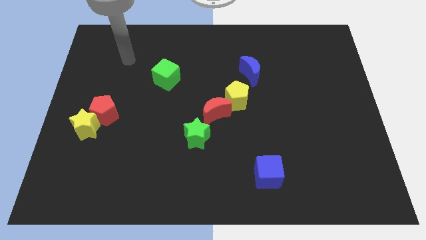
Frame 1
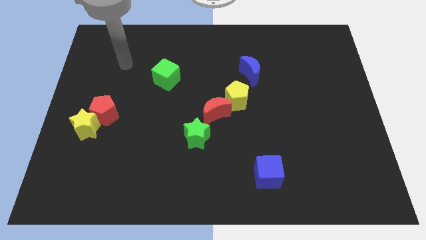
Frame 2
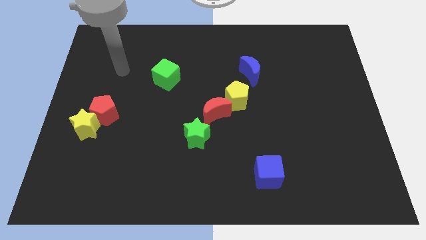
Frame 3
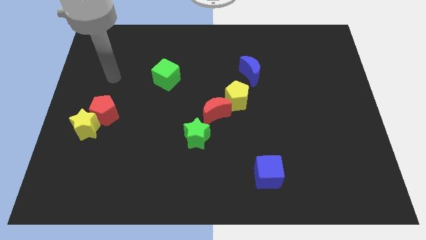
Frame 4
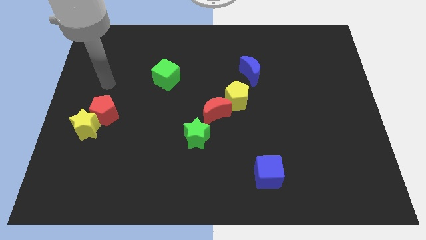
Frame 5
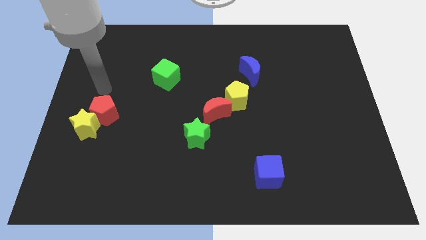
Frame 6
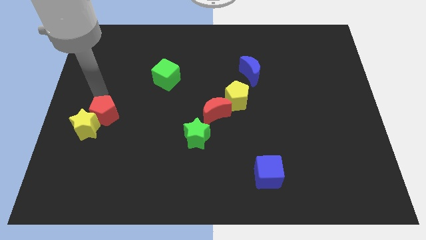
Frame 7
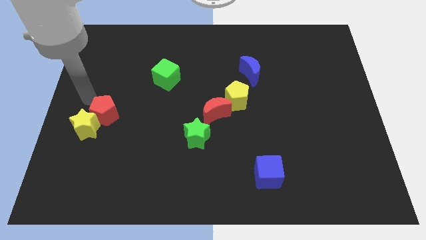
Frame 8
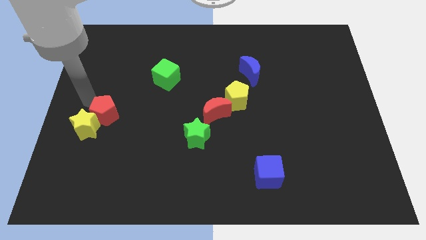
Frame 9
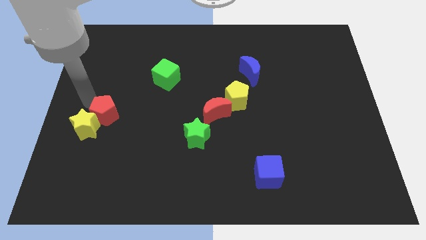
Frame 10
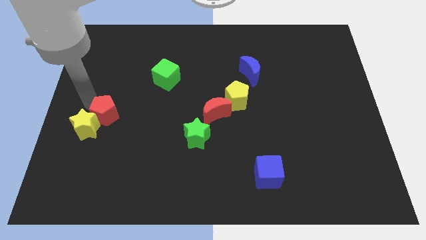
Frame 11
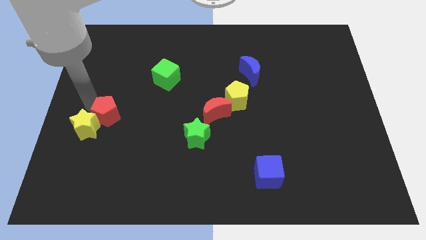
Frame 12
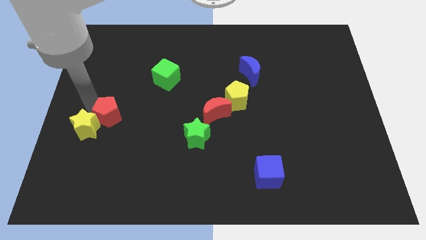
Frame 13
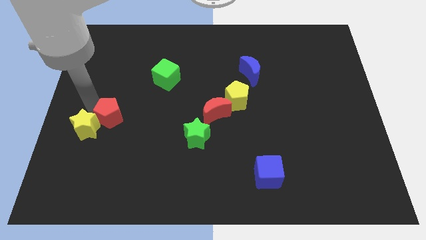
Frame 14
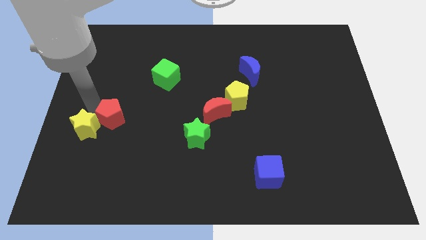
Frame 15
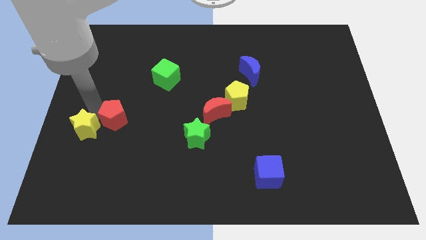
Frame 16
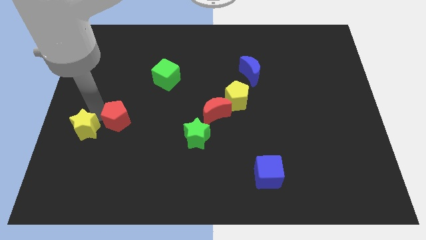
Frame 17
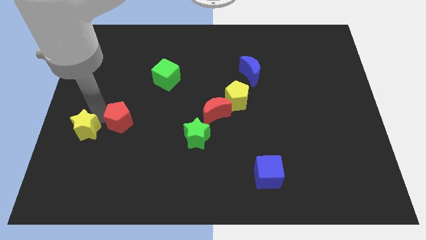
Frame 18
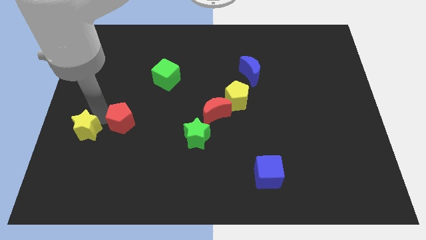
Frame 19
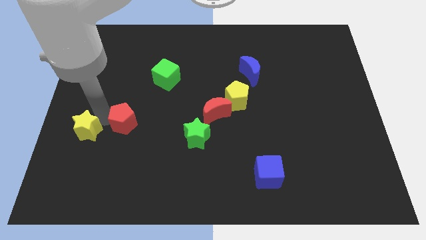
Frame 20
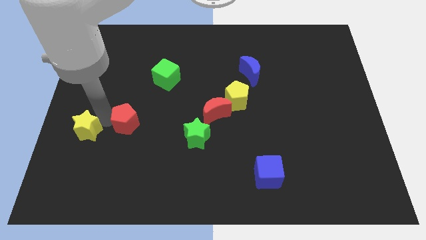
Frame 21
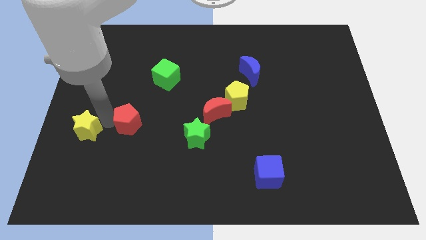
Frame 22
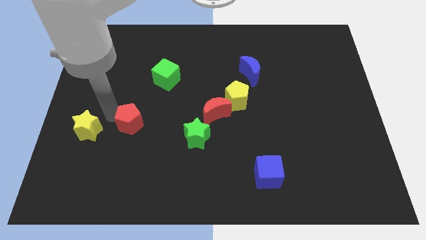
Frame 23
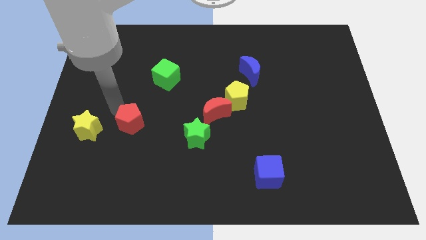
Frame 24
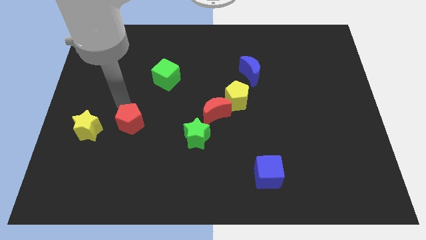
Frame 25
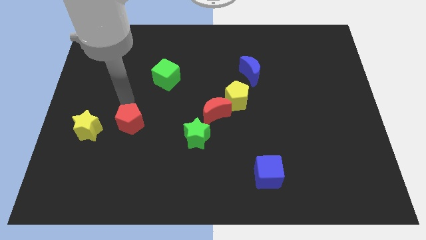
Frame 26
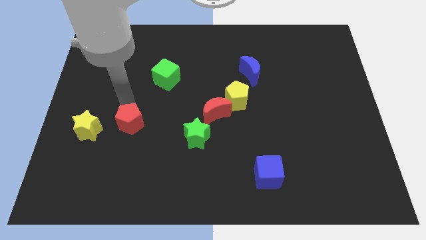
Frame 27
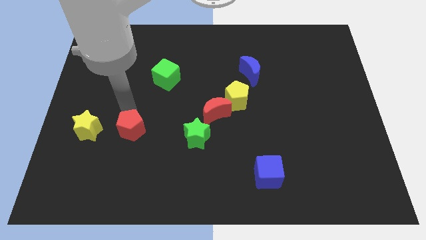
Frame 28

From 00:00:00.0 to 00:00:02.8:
move the red pentagon a little bit downwards and to the right

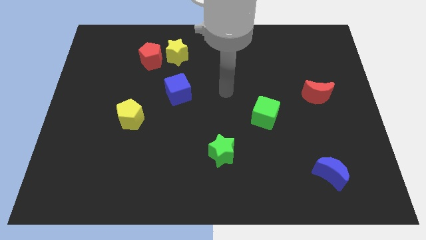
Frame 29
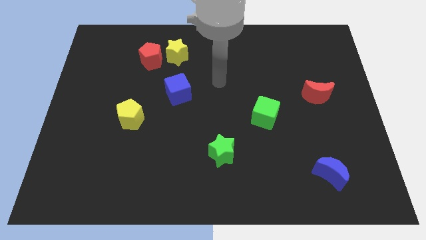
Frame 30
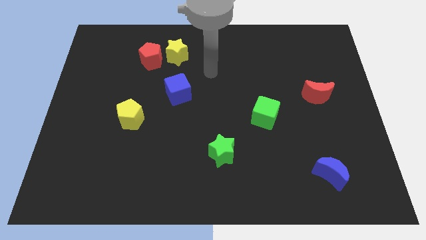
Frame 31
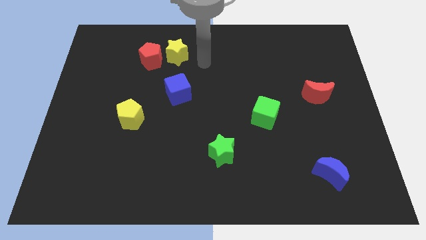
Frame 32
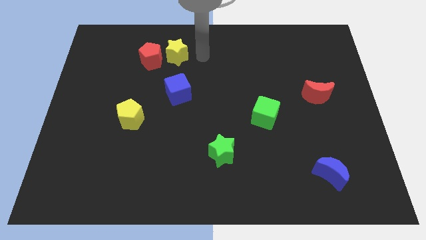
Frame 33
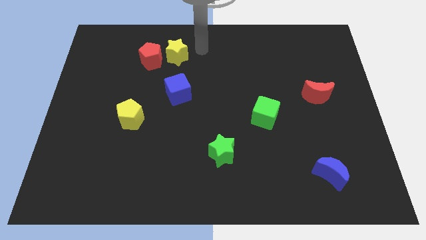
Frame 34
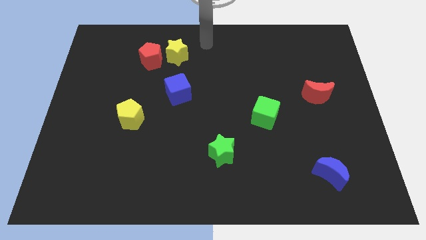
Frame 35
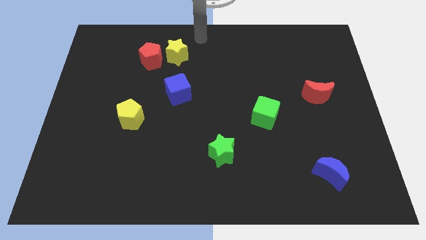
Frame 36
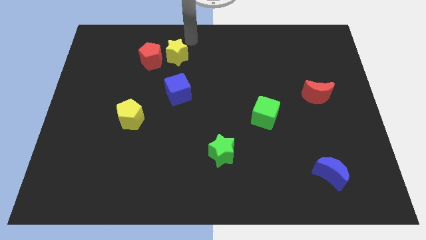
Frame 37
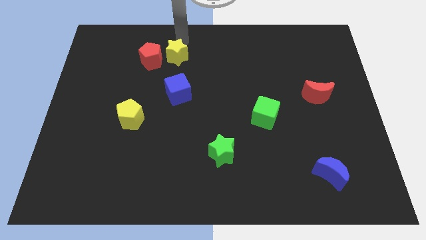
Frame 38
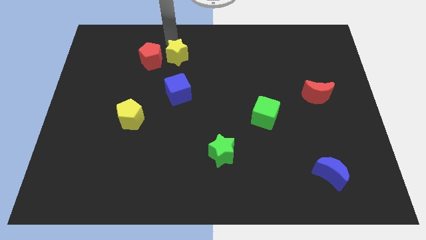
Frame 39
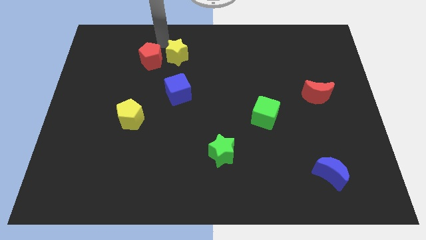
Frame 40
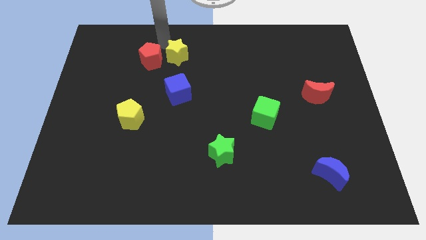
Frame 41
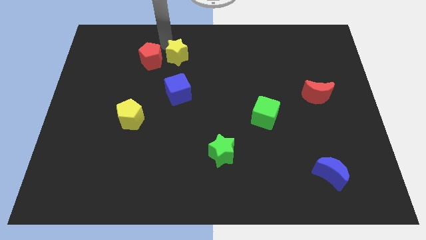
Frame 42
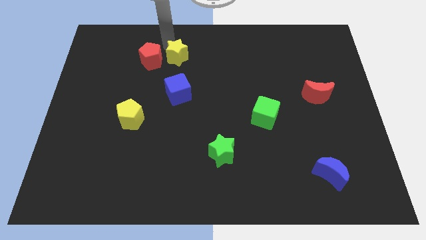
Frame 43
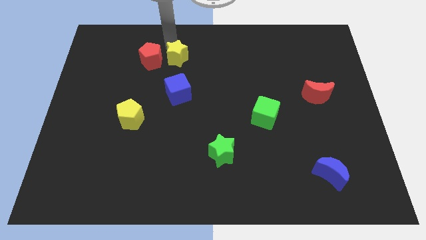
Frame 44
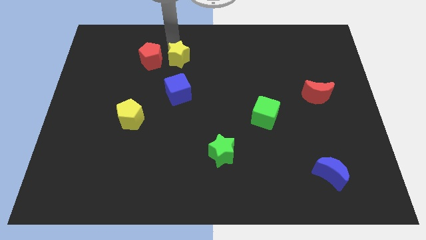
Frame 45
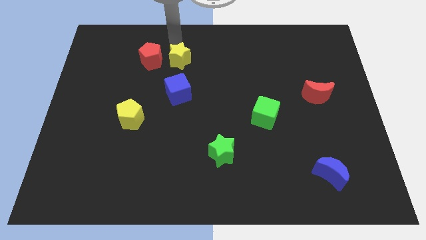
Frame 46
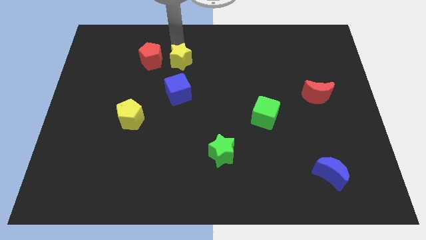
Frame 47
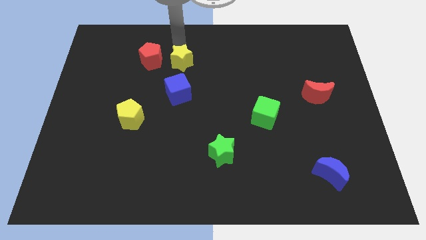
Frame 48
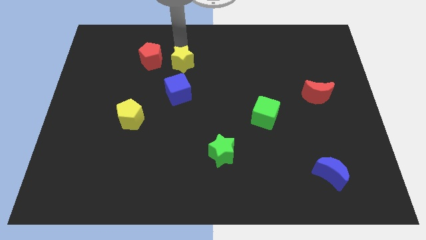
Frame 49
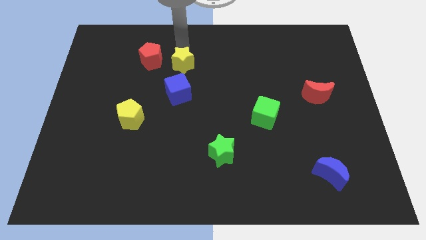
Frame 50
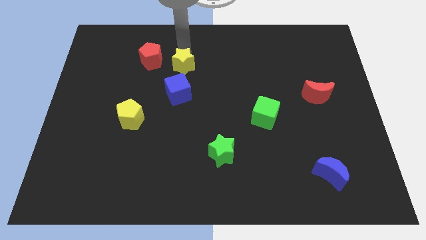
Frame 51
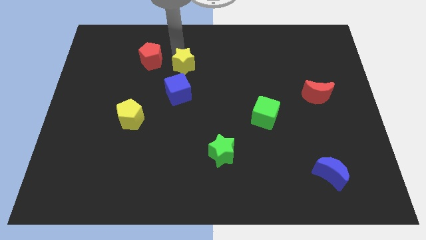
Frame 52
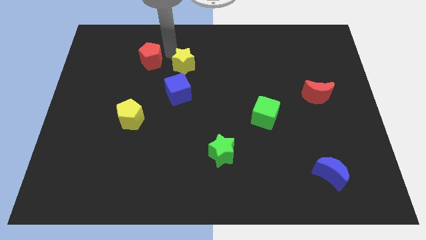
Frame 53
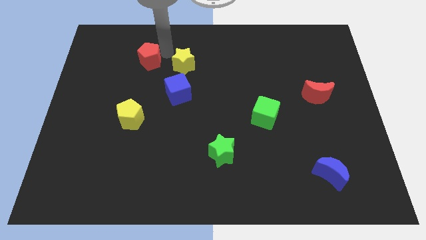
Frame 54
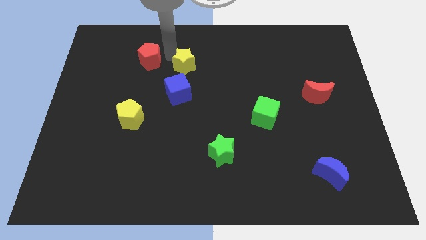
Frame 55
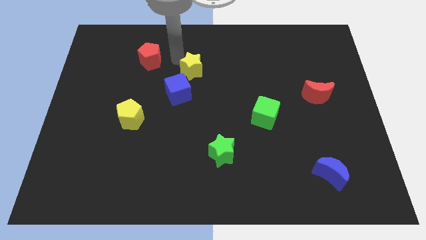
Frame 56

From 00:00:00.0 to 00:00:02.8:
slightly move the yellow star down and right

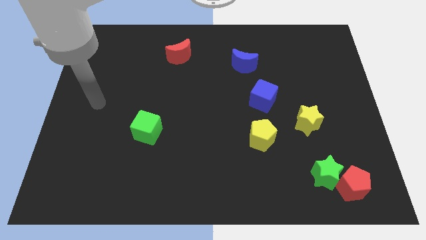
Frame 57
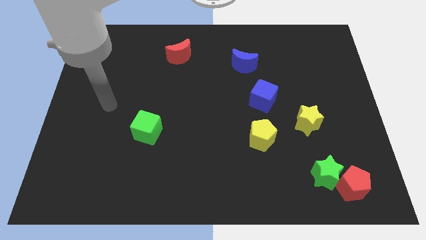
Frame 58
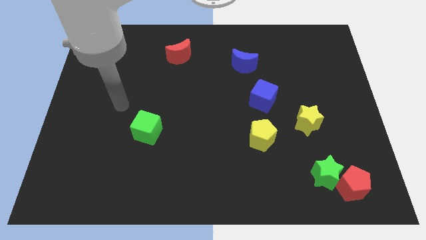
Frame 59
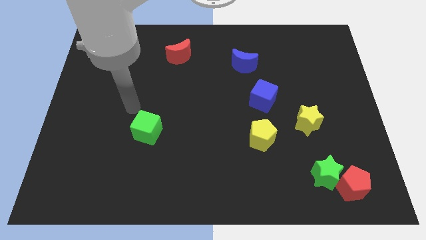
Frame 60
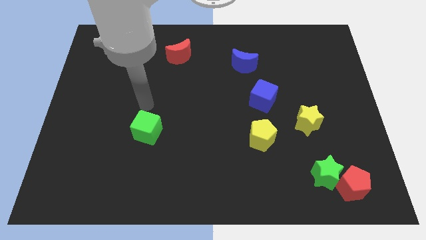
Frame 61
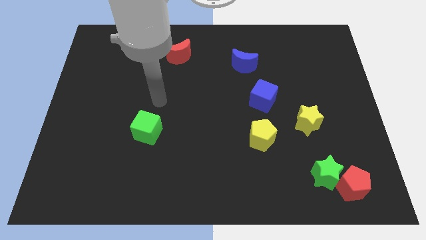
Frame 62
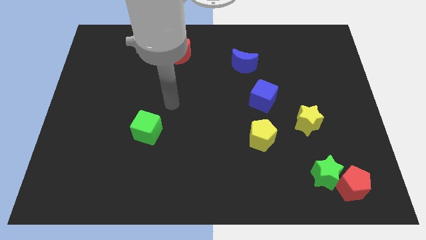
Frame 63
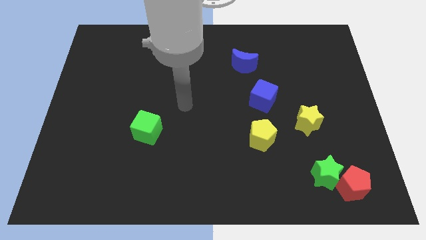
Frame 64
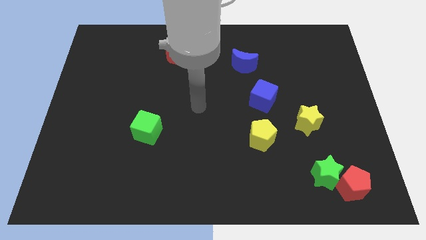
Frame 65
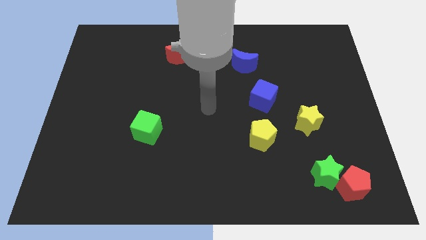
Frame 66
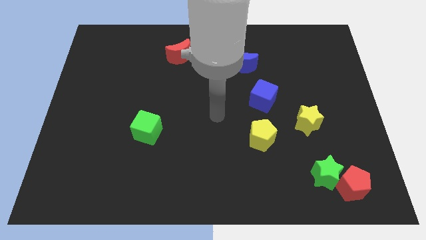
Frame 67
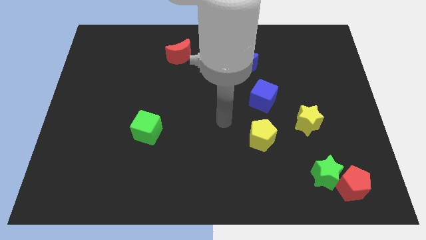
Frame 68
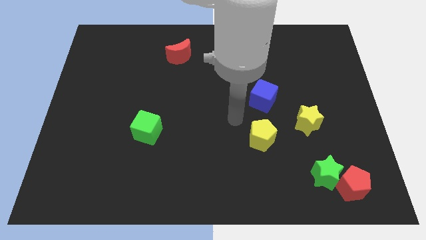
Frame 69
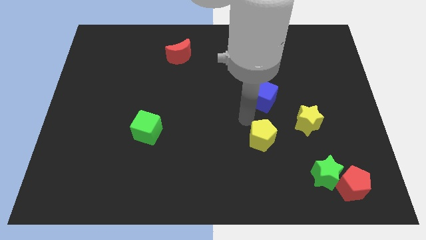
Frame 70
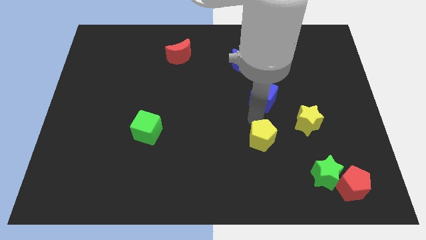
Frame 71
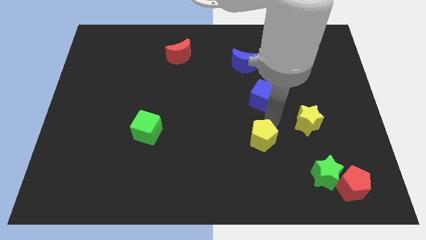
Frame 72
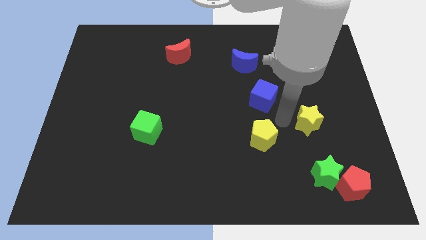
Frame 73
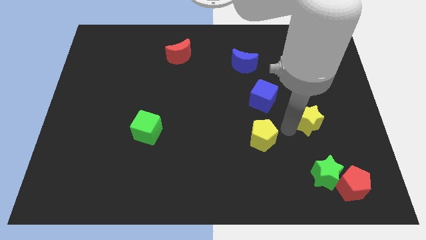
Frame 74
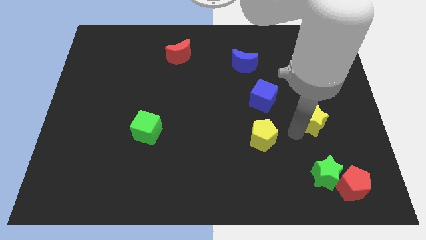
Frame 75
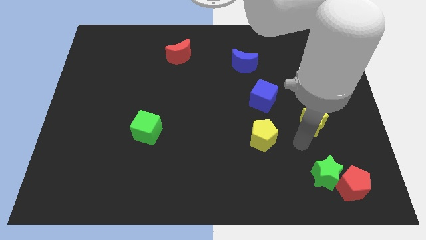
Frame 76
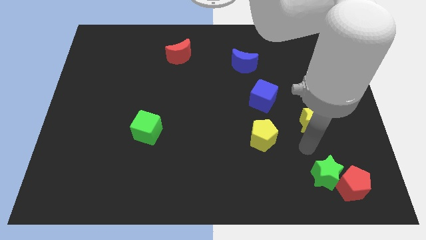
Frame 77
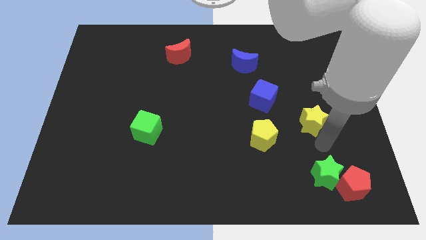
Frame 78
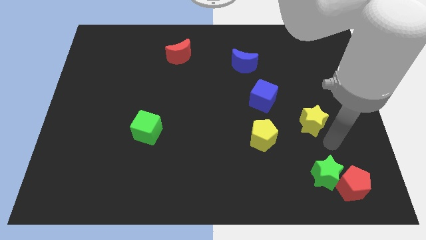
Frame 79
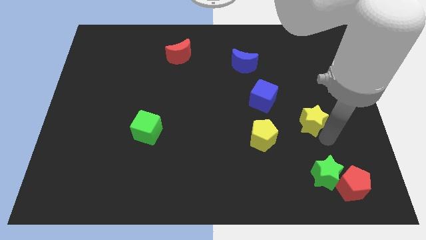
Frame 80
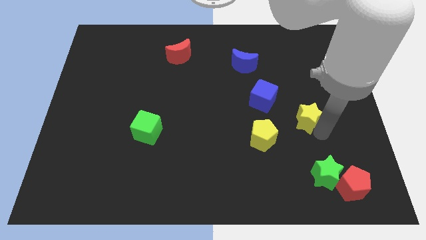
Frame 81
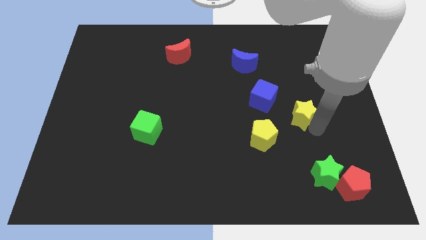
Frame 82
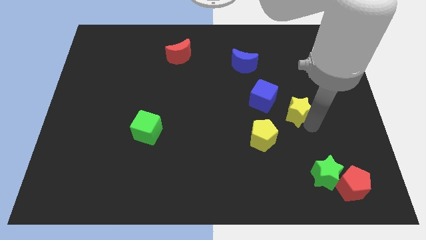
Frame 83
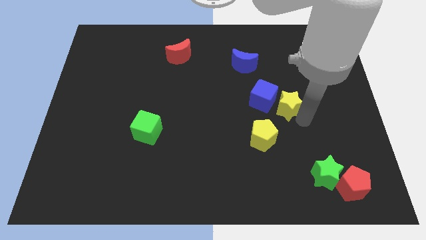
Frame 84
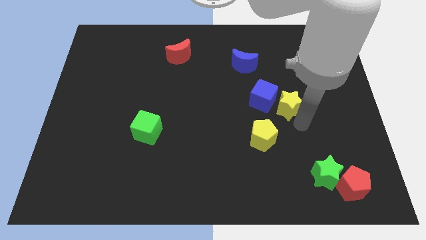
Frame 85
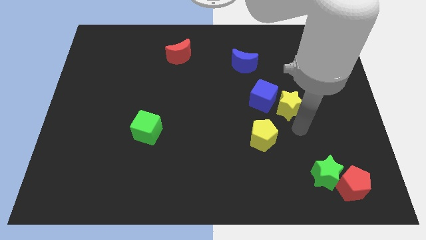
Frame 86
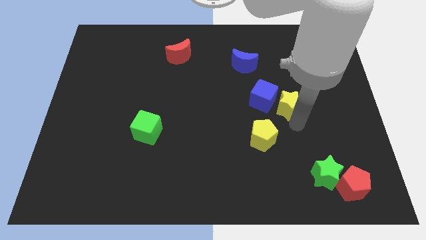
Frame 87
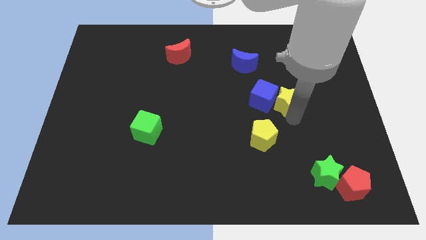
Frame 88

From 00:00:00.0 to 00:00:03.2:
push the yellow star slightly up and then left
